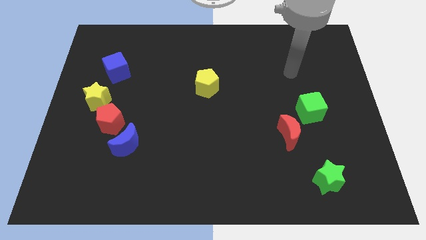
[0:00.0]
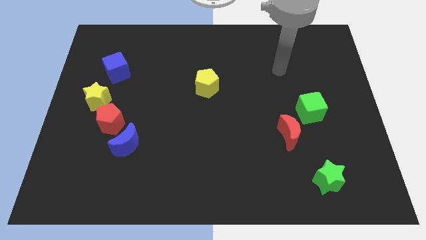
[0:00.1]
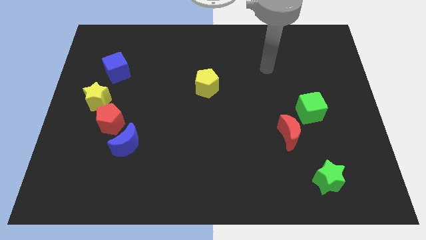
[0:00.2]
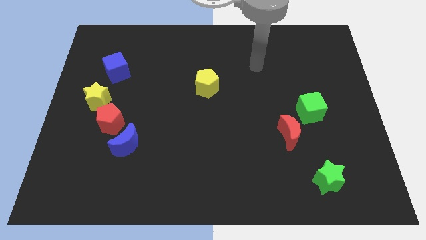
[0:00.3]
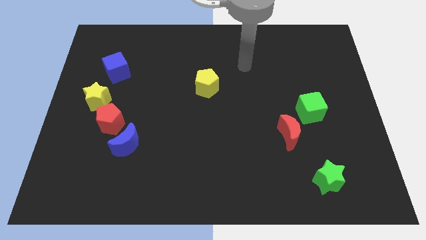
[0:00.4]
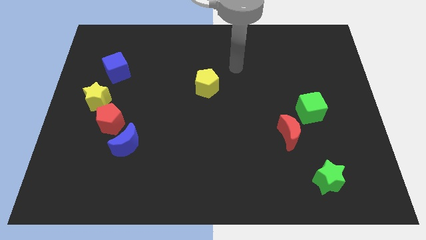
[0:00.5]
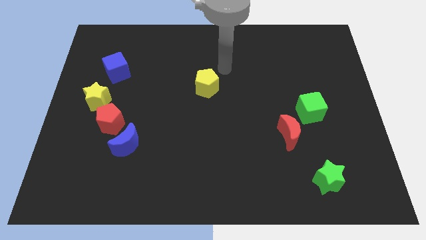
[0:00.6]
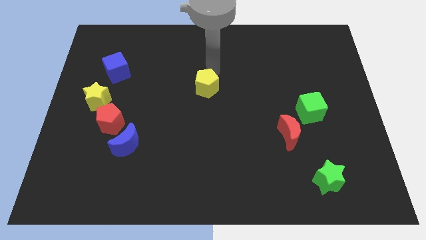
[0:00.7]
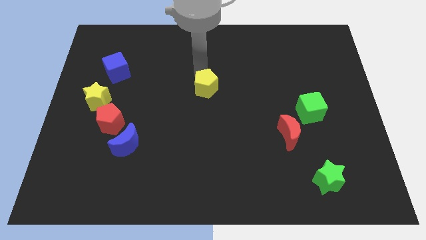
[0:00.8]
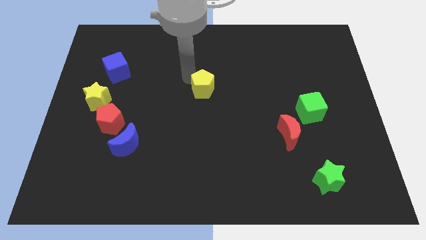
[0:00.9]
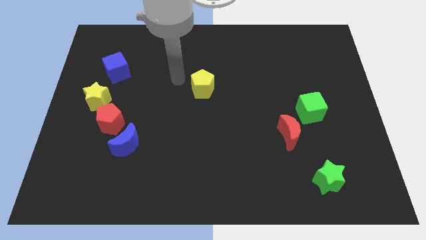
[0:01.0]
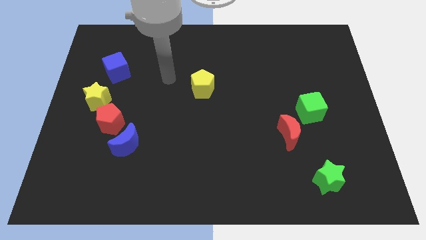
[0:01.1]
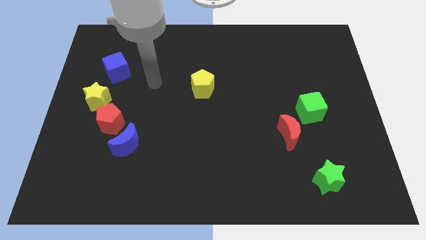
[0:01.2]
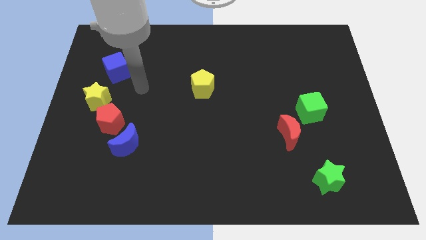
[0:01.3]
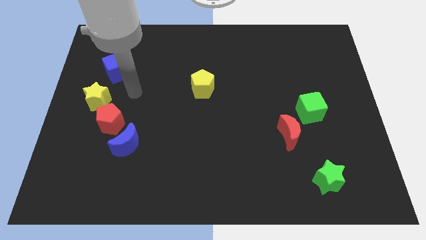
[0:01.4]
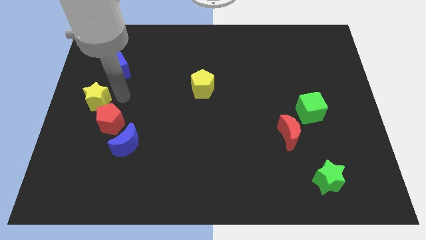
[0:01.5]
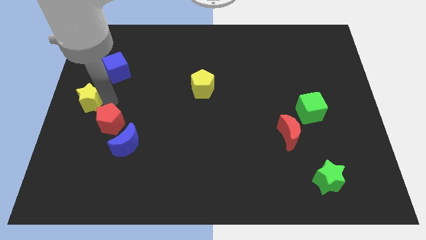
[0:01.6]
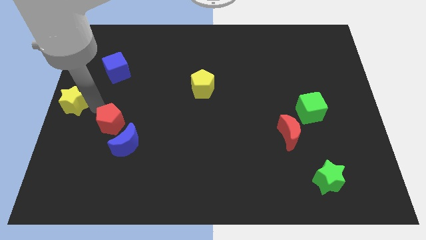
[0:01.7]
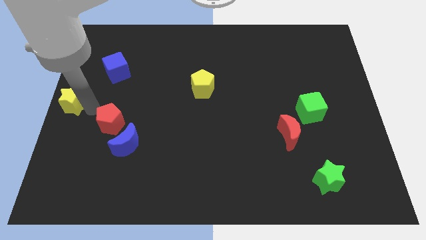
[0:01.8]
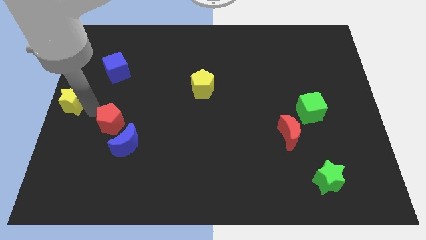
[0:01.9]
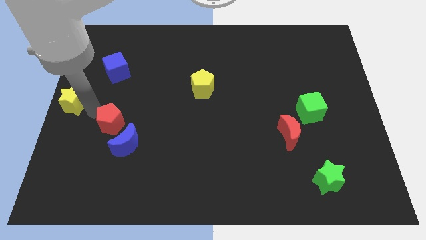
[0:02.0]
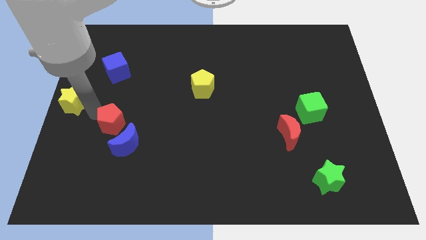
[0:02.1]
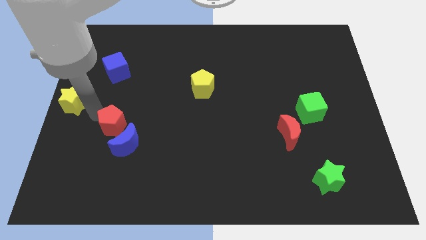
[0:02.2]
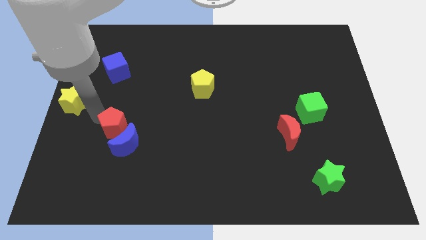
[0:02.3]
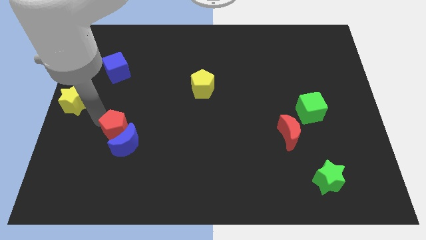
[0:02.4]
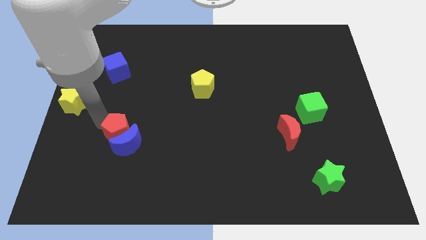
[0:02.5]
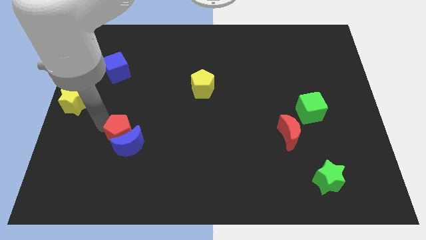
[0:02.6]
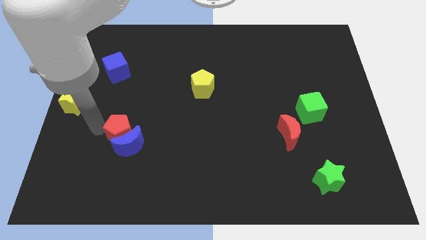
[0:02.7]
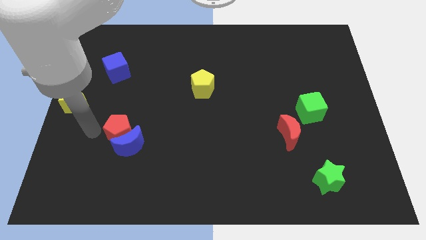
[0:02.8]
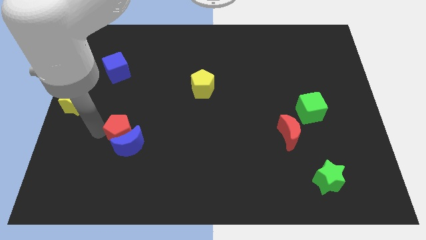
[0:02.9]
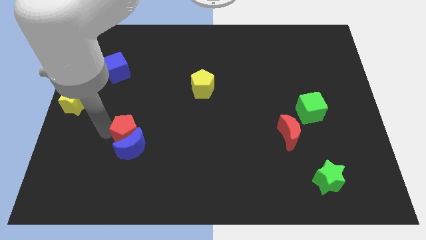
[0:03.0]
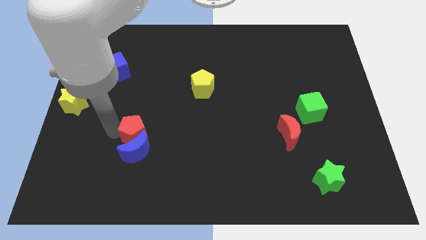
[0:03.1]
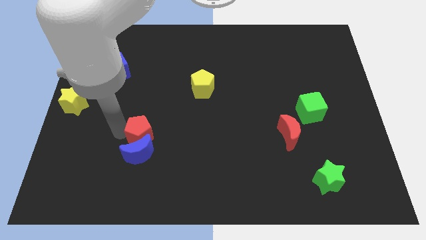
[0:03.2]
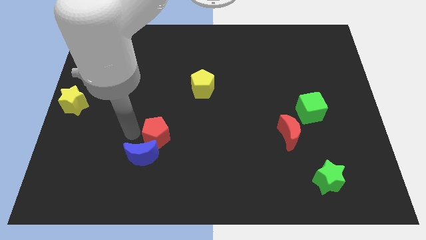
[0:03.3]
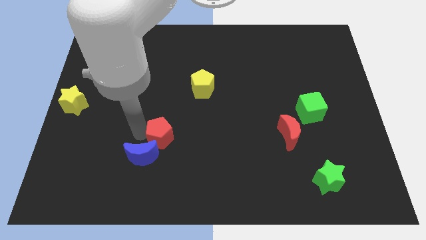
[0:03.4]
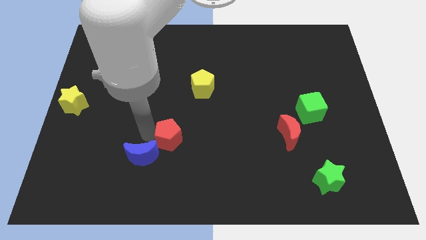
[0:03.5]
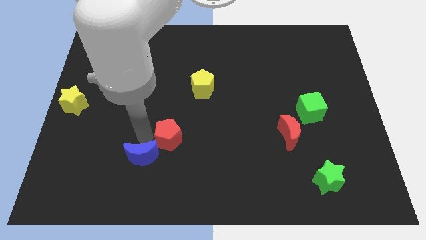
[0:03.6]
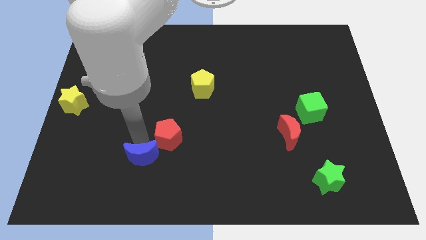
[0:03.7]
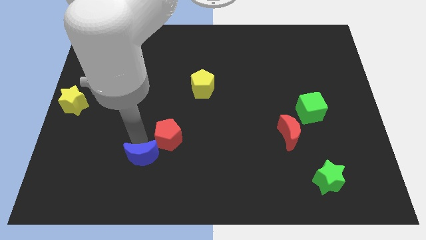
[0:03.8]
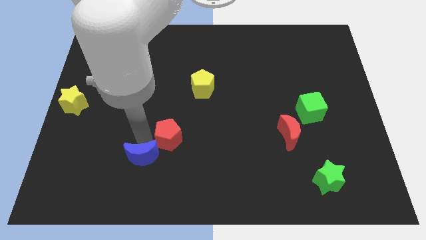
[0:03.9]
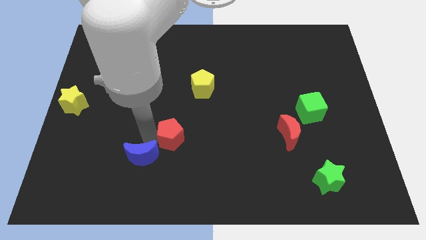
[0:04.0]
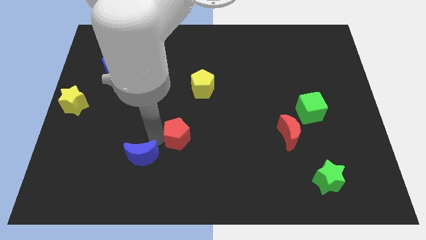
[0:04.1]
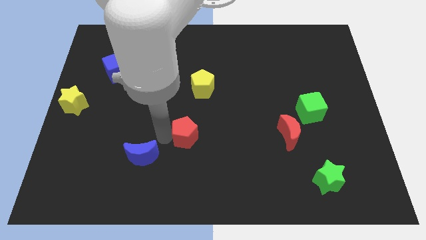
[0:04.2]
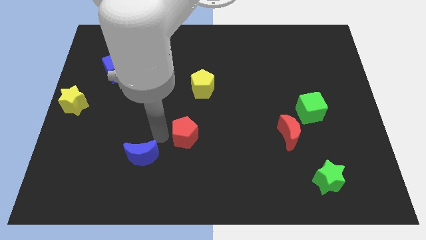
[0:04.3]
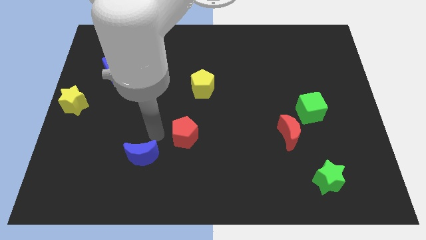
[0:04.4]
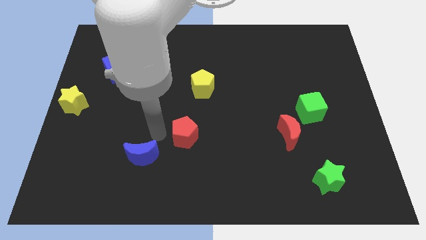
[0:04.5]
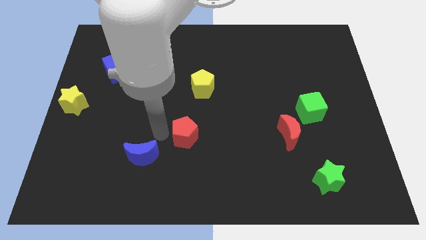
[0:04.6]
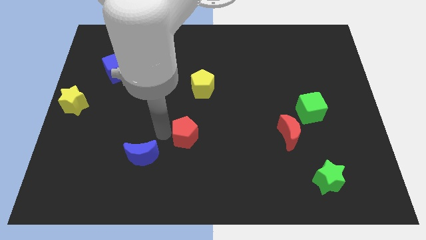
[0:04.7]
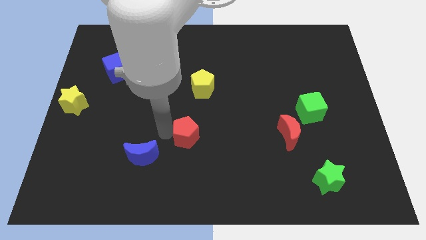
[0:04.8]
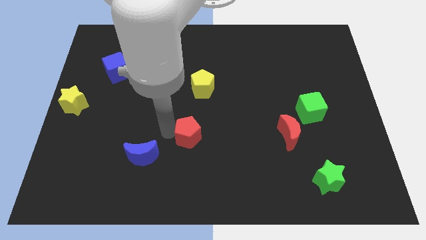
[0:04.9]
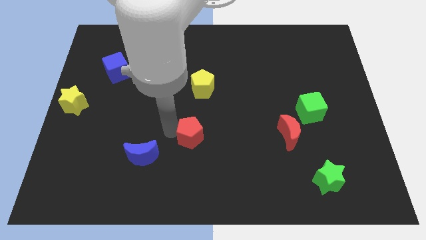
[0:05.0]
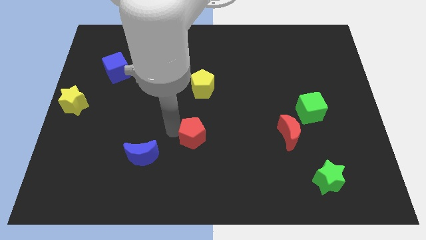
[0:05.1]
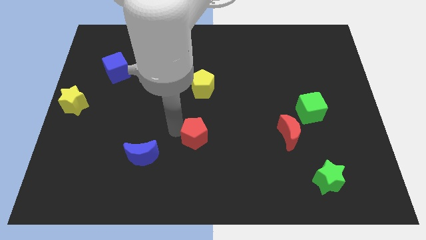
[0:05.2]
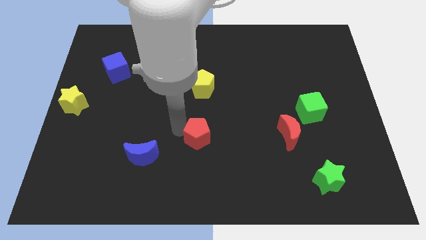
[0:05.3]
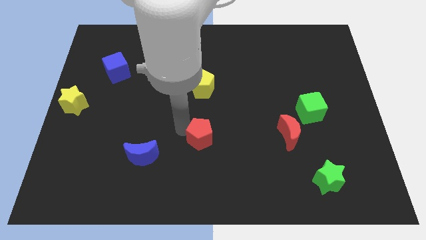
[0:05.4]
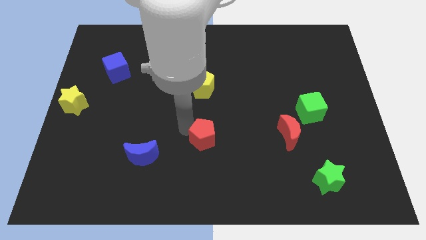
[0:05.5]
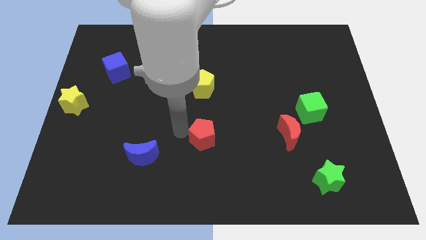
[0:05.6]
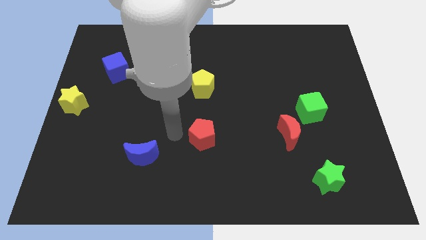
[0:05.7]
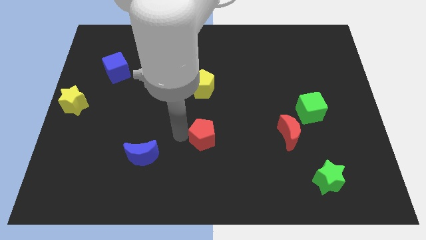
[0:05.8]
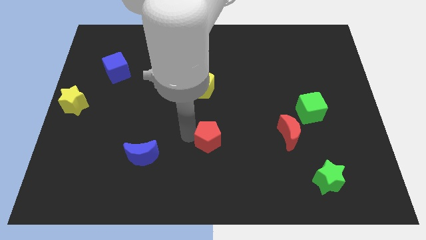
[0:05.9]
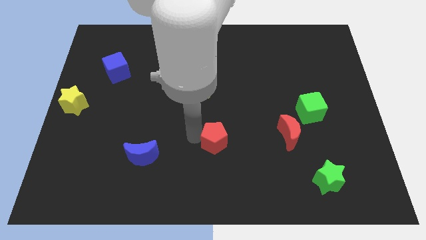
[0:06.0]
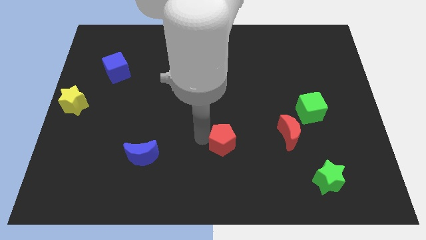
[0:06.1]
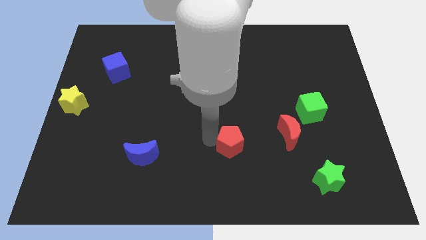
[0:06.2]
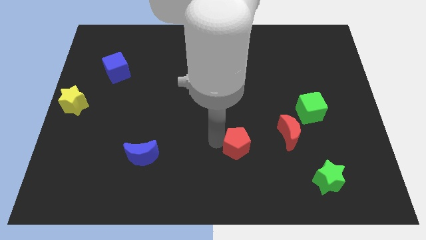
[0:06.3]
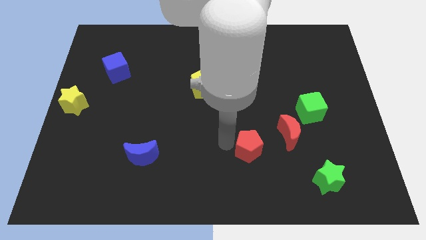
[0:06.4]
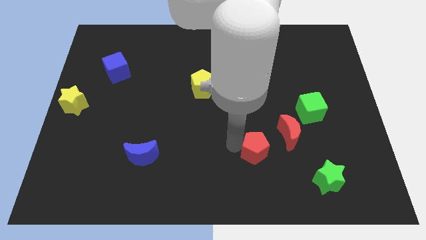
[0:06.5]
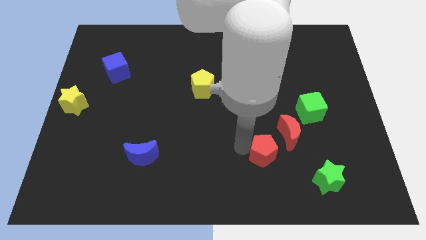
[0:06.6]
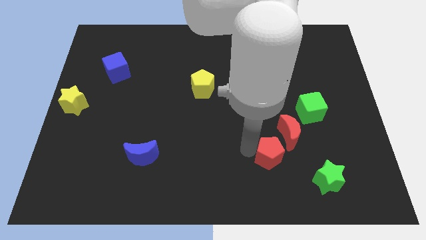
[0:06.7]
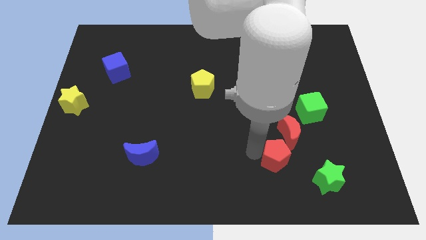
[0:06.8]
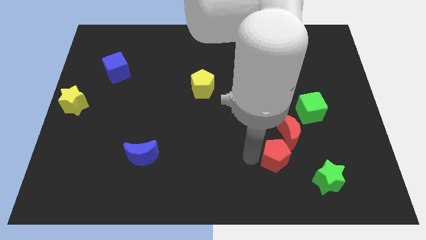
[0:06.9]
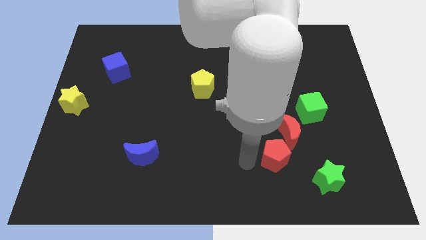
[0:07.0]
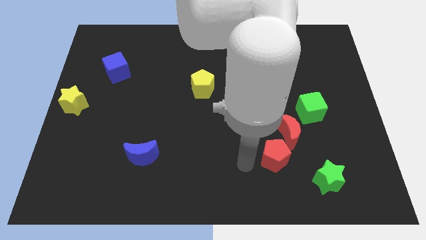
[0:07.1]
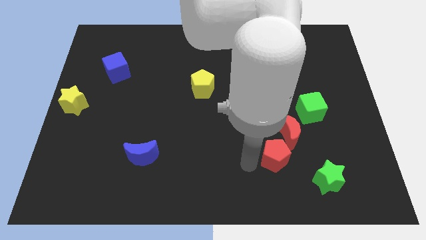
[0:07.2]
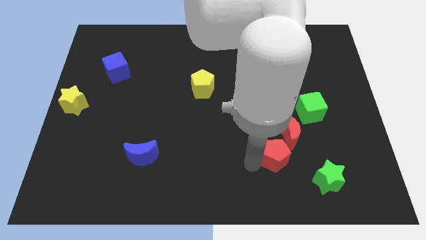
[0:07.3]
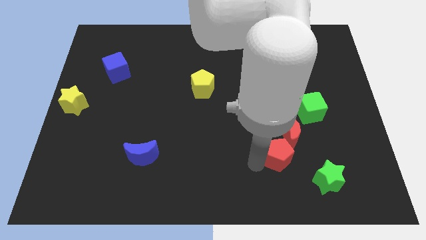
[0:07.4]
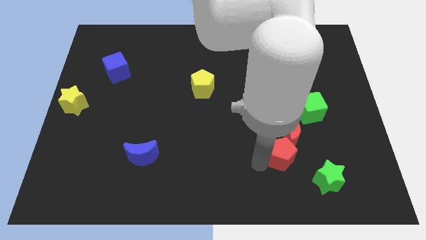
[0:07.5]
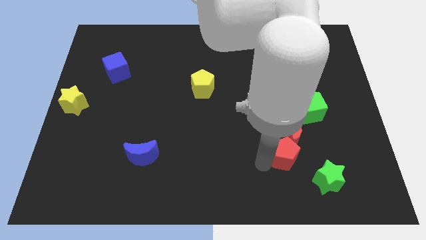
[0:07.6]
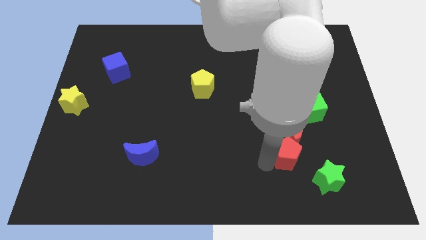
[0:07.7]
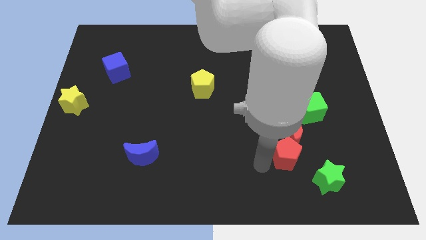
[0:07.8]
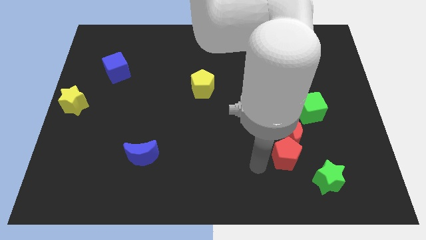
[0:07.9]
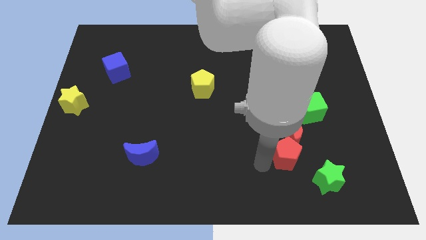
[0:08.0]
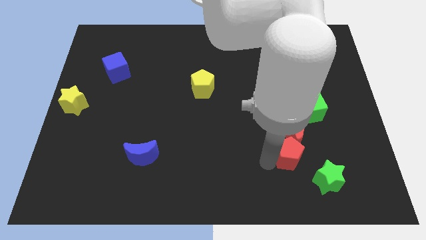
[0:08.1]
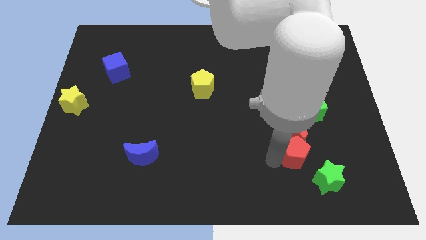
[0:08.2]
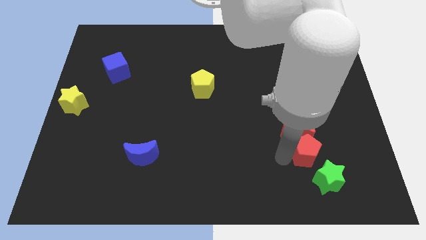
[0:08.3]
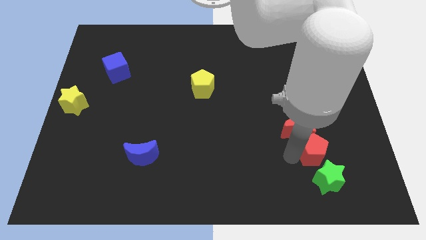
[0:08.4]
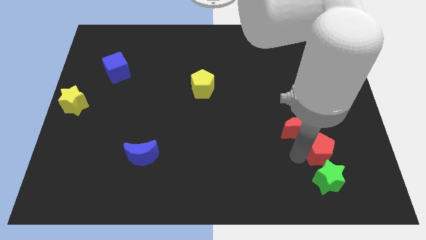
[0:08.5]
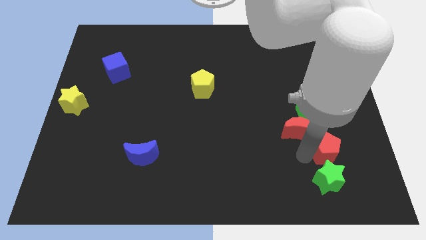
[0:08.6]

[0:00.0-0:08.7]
slide the red pentagon to the right of the red moon
